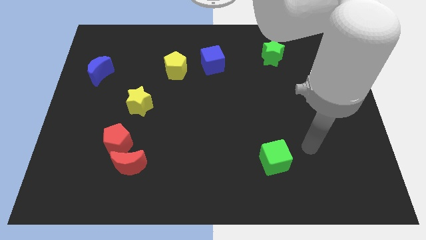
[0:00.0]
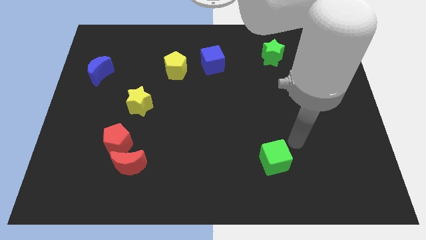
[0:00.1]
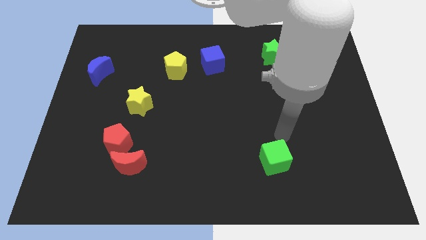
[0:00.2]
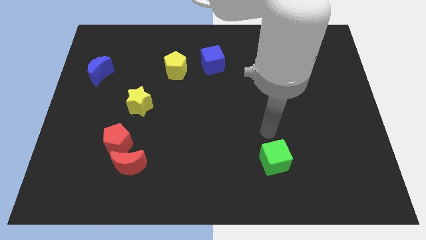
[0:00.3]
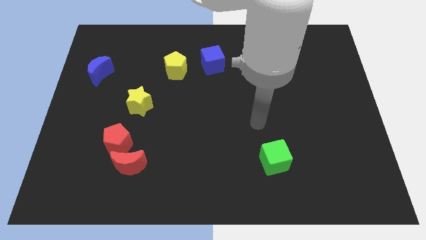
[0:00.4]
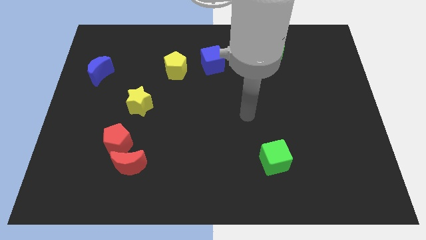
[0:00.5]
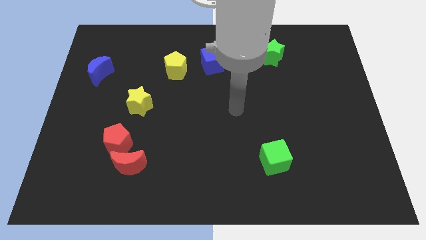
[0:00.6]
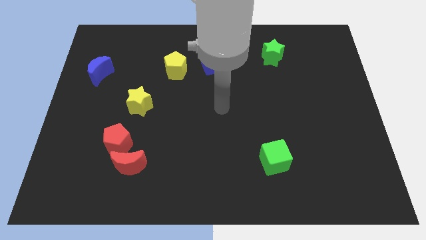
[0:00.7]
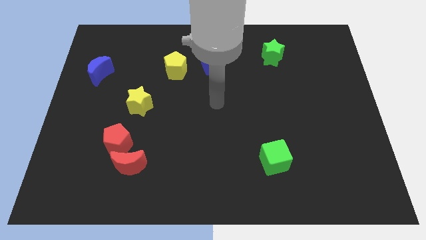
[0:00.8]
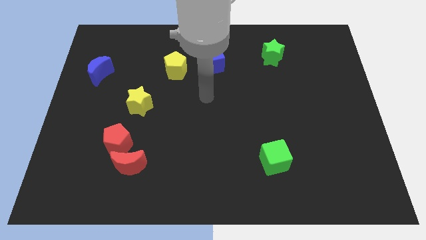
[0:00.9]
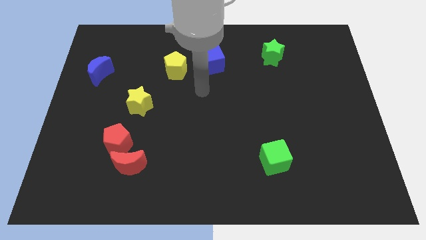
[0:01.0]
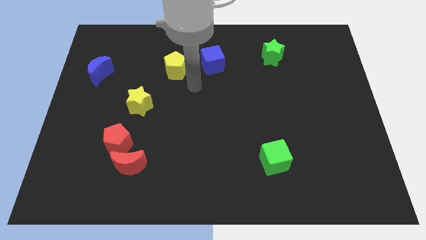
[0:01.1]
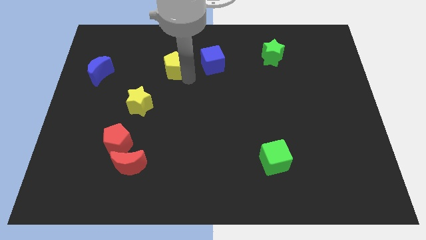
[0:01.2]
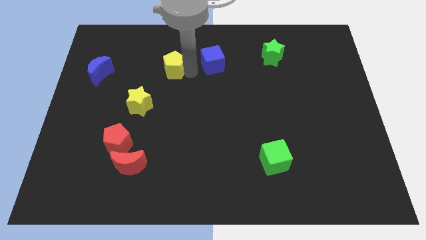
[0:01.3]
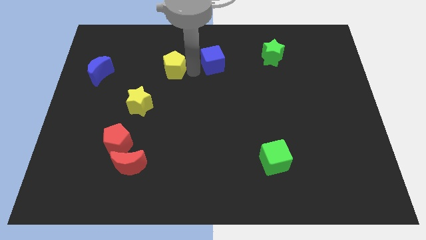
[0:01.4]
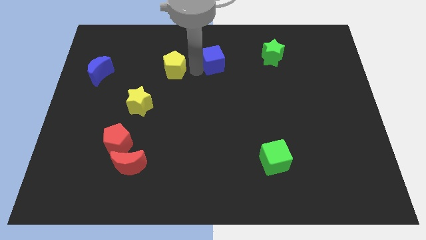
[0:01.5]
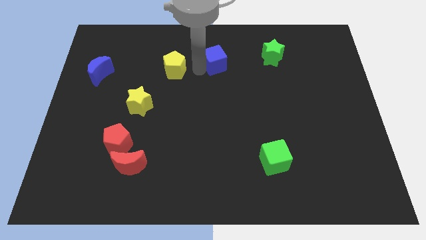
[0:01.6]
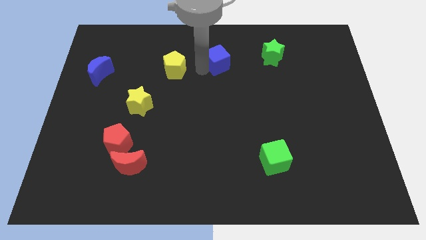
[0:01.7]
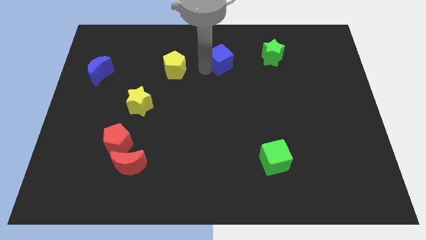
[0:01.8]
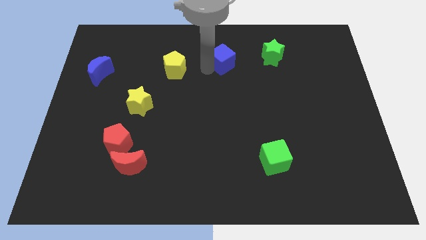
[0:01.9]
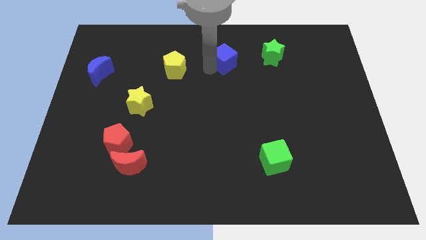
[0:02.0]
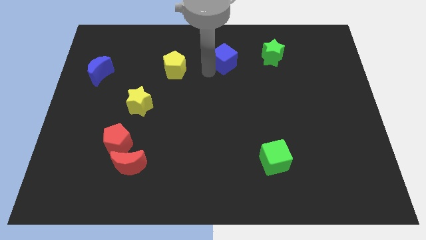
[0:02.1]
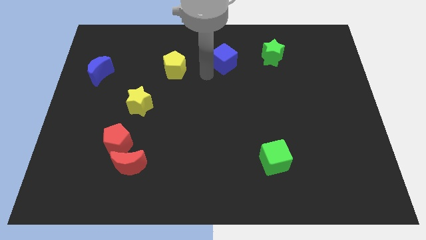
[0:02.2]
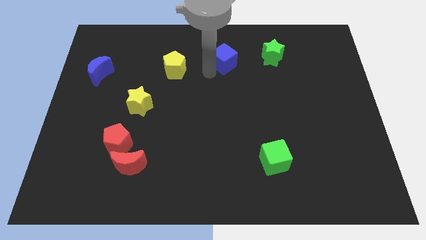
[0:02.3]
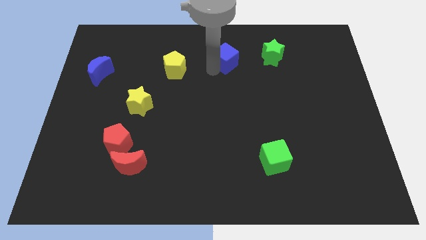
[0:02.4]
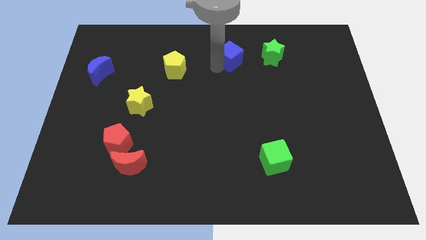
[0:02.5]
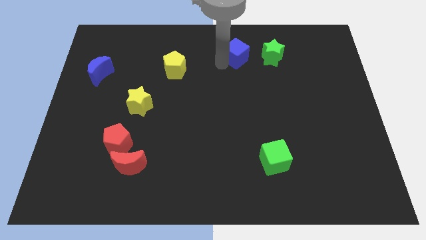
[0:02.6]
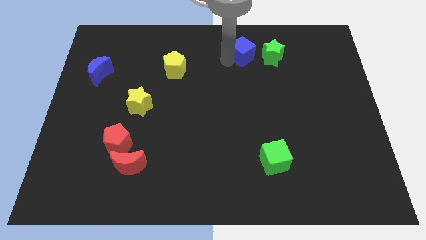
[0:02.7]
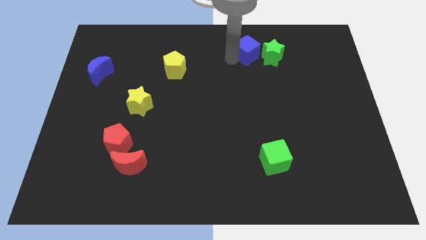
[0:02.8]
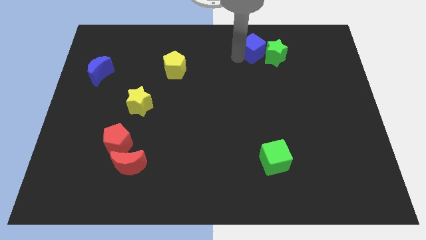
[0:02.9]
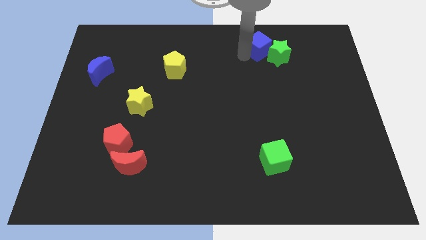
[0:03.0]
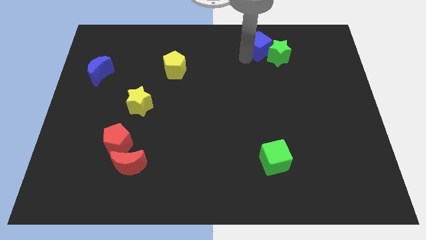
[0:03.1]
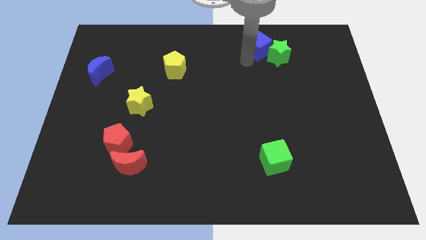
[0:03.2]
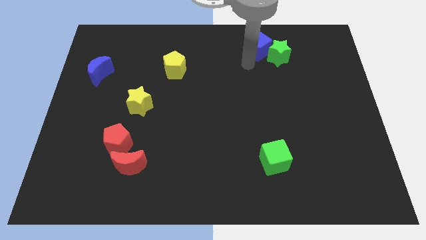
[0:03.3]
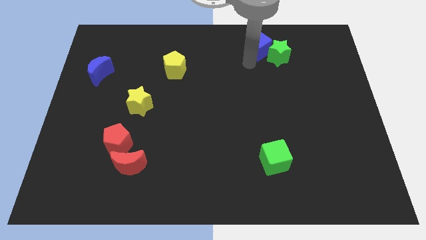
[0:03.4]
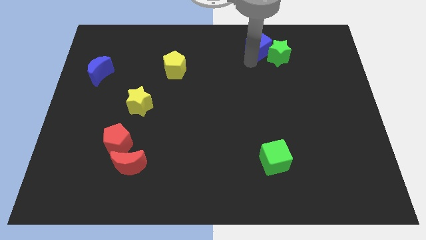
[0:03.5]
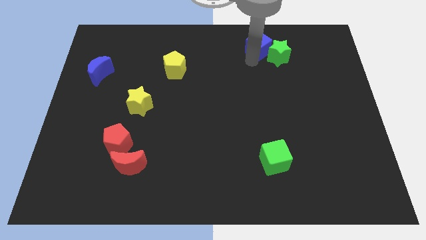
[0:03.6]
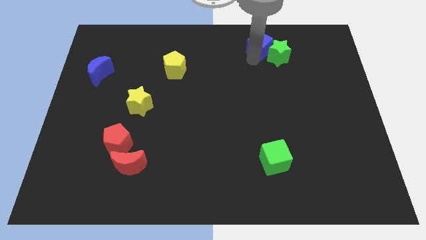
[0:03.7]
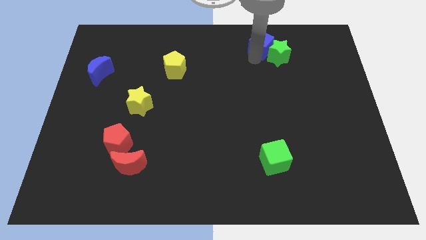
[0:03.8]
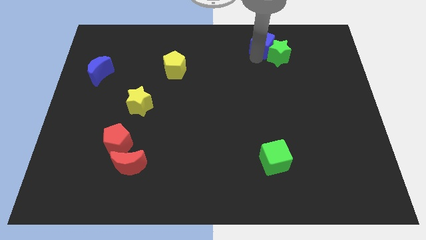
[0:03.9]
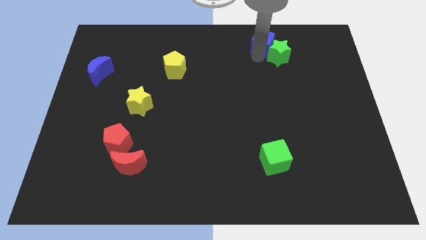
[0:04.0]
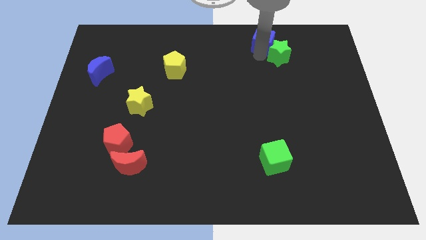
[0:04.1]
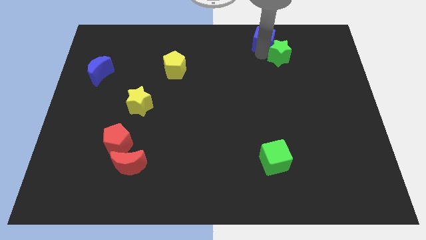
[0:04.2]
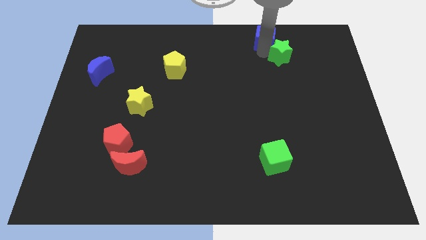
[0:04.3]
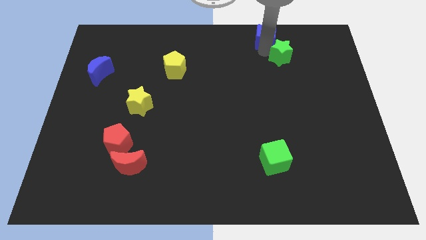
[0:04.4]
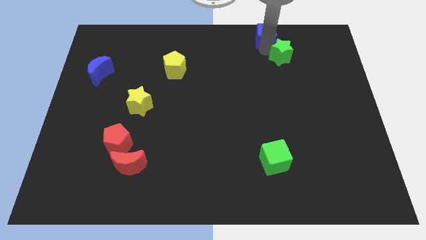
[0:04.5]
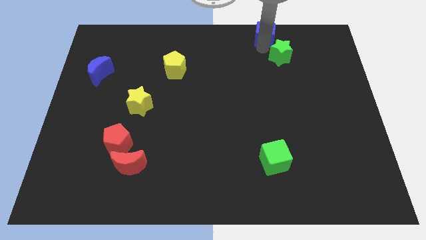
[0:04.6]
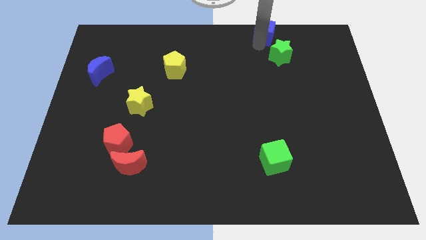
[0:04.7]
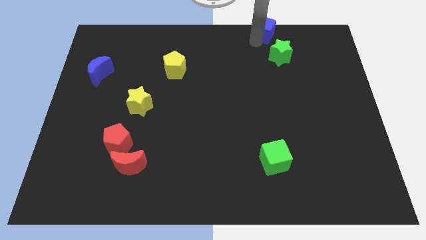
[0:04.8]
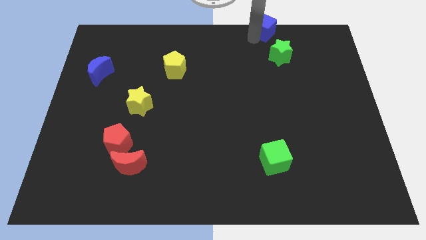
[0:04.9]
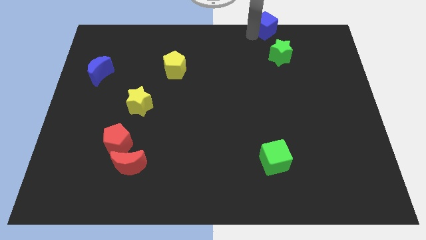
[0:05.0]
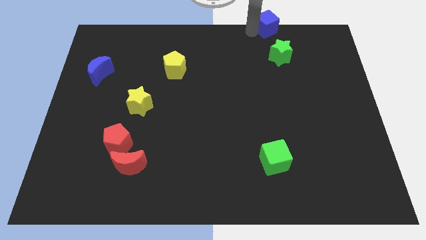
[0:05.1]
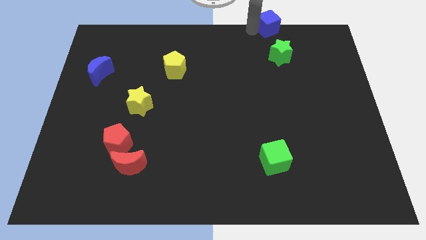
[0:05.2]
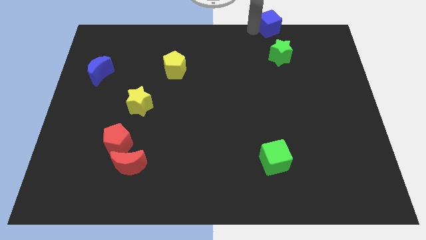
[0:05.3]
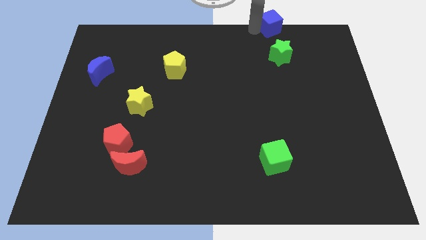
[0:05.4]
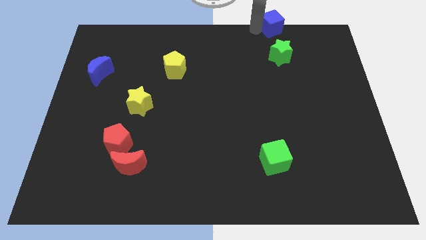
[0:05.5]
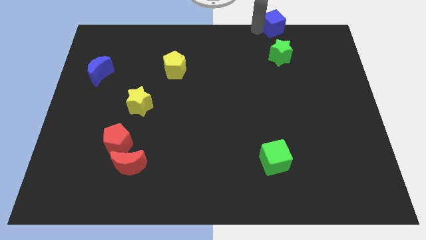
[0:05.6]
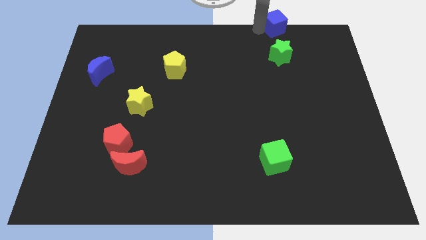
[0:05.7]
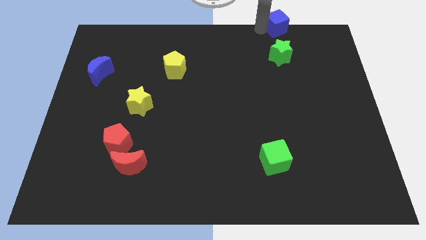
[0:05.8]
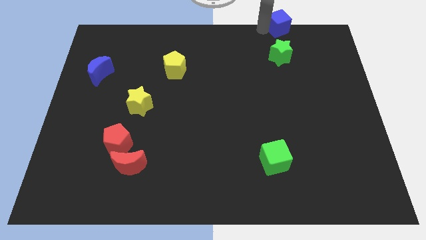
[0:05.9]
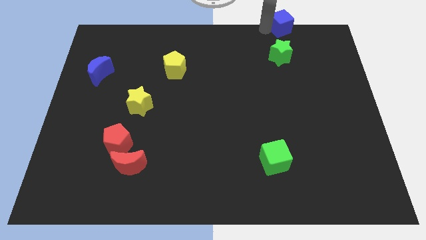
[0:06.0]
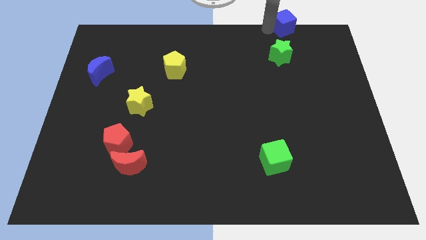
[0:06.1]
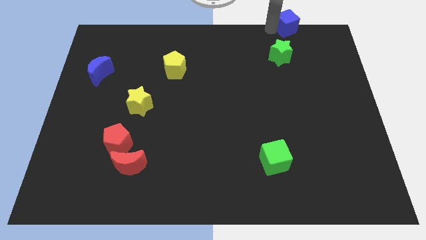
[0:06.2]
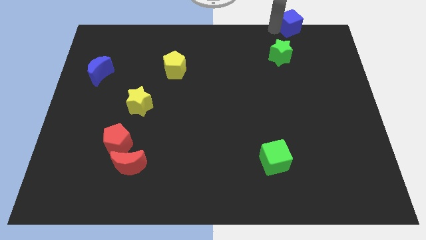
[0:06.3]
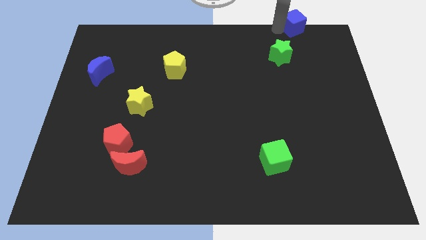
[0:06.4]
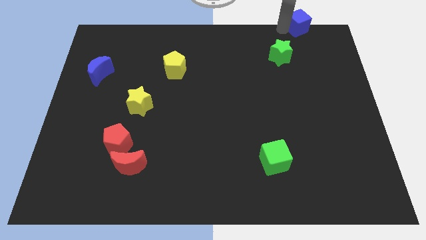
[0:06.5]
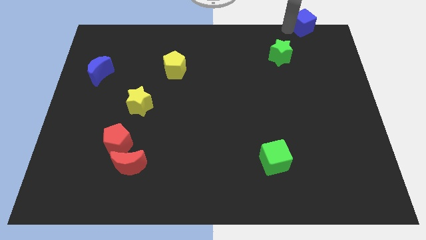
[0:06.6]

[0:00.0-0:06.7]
put the blue cube to the top right of the board

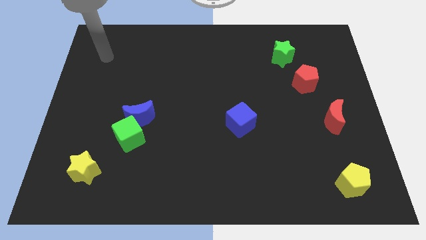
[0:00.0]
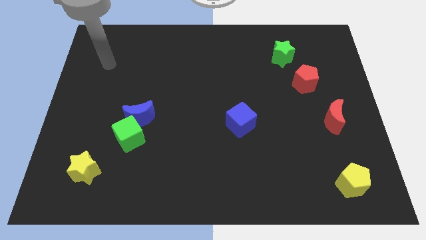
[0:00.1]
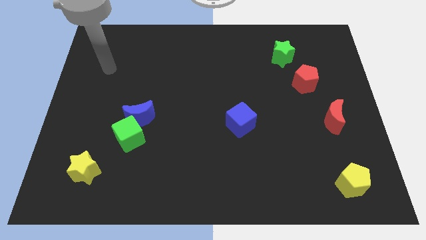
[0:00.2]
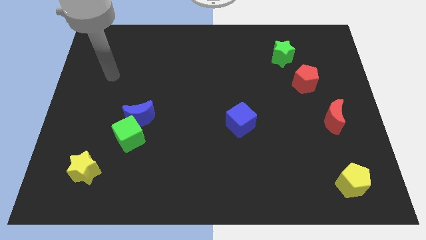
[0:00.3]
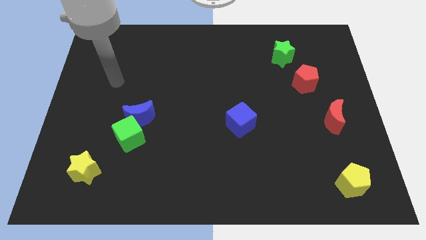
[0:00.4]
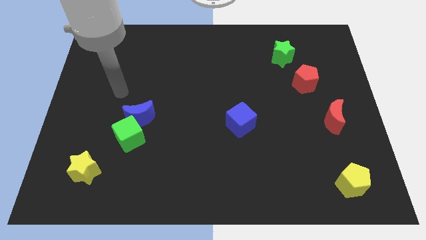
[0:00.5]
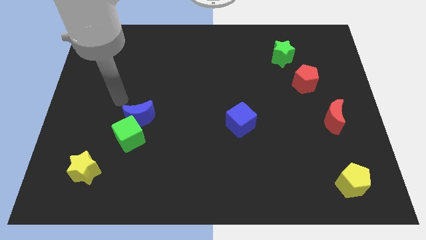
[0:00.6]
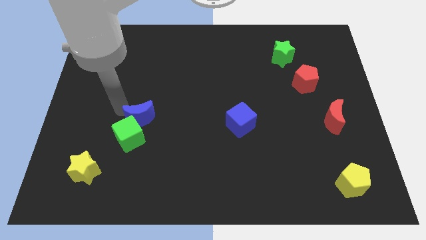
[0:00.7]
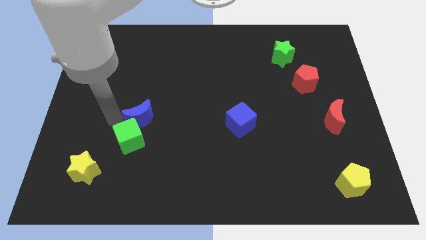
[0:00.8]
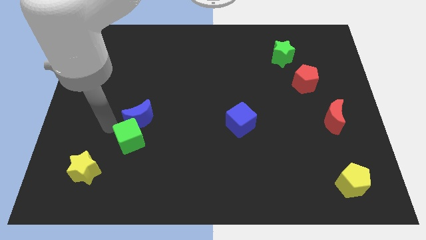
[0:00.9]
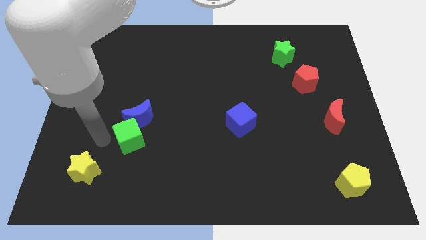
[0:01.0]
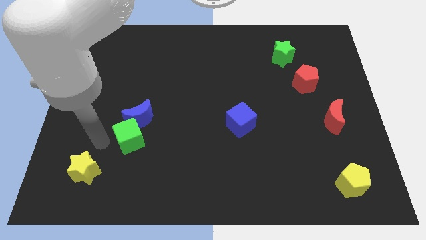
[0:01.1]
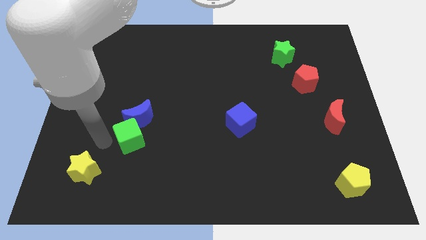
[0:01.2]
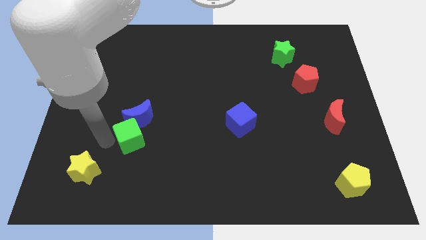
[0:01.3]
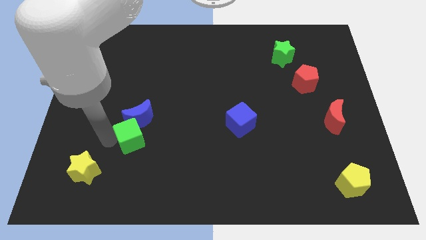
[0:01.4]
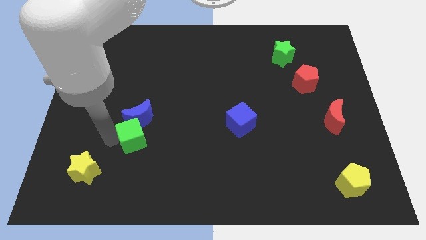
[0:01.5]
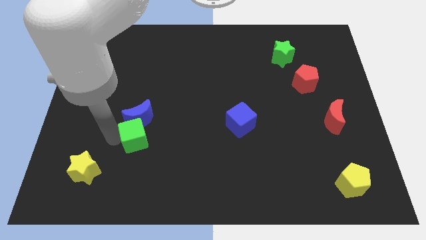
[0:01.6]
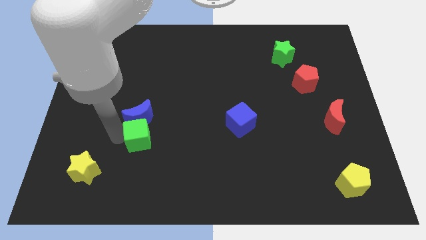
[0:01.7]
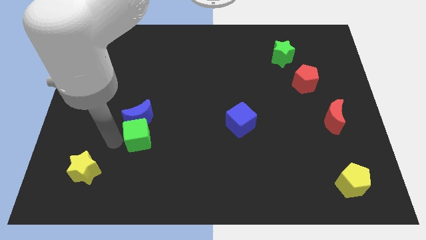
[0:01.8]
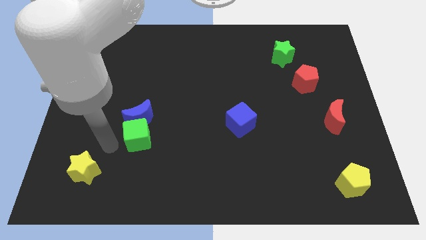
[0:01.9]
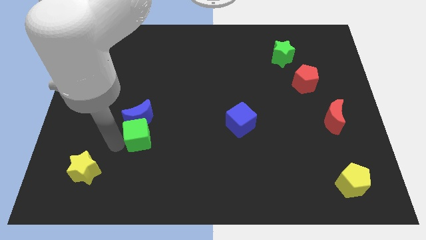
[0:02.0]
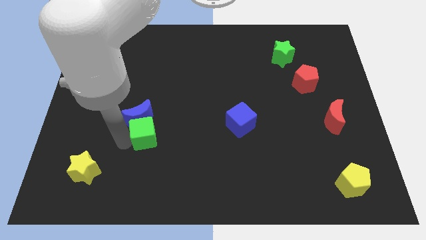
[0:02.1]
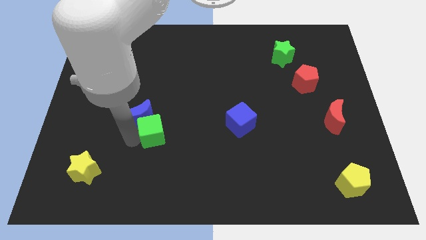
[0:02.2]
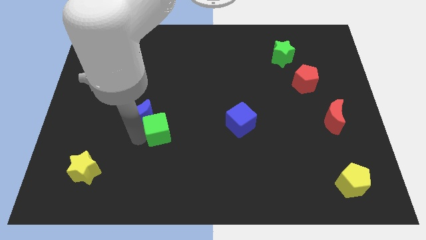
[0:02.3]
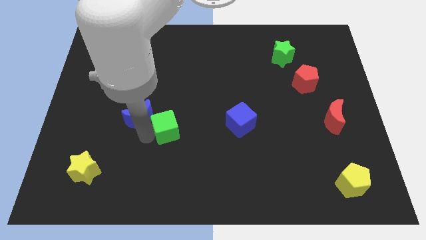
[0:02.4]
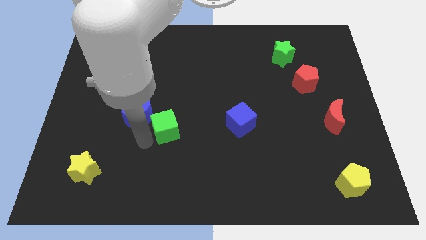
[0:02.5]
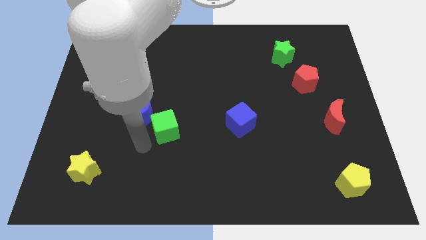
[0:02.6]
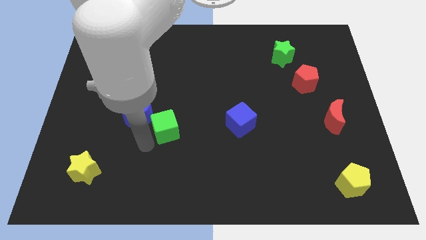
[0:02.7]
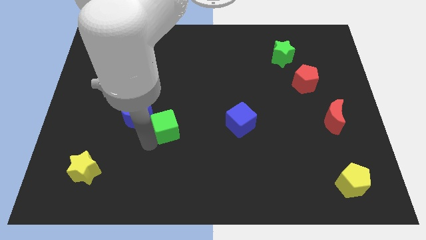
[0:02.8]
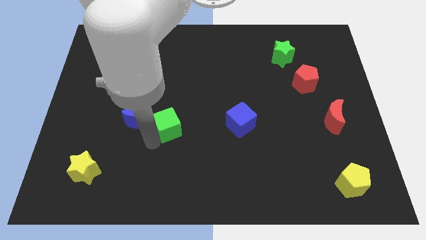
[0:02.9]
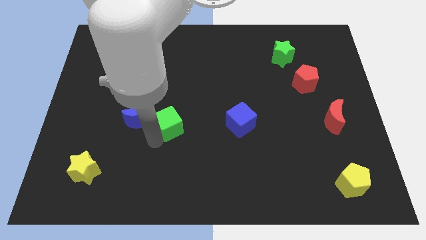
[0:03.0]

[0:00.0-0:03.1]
slide the green cube to the middle of the board
